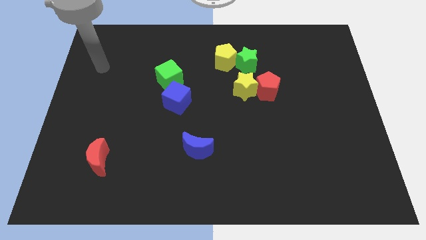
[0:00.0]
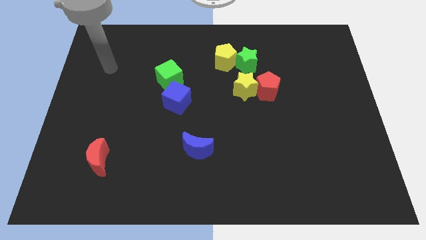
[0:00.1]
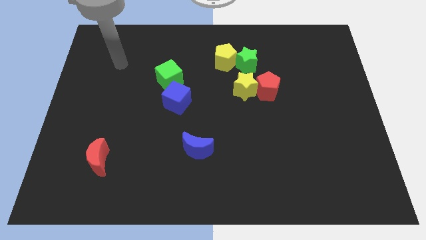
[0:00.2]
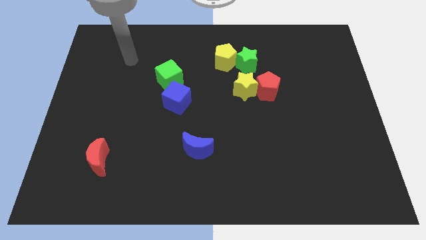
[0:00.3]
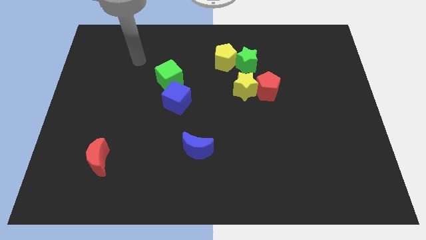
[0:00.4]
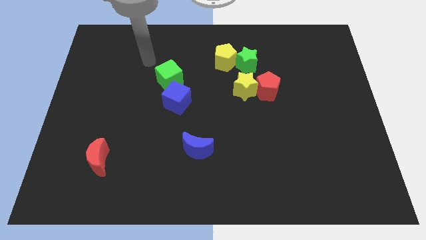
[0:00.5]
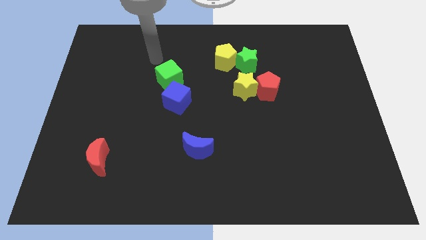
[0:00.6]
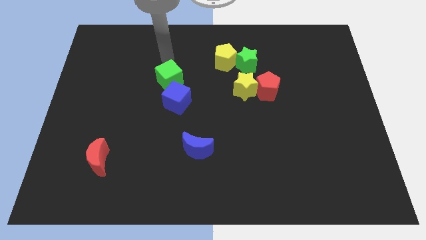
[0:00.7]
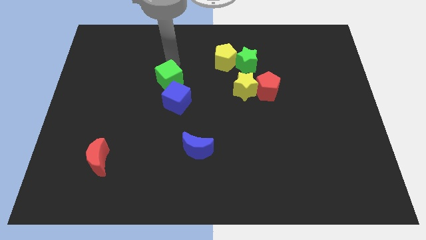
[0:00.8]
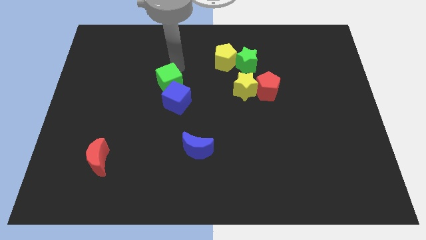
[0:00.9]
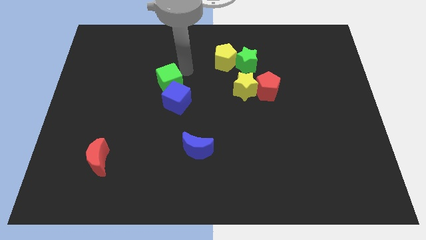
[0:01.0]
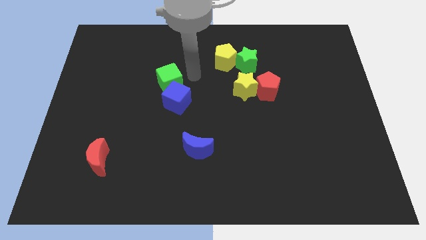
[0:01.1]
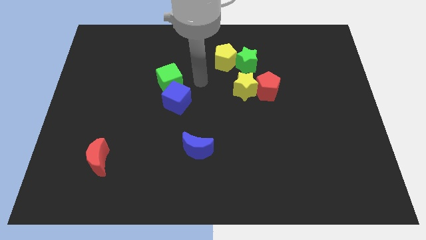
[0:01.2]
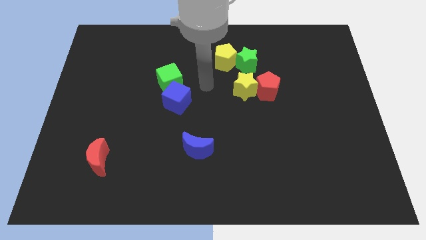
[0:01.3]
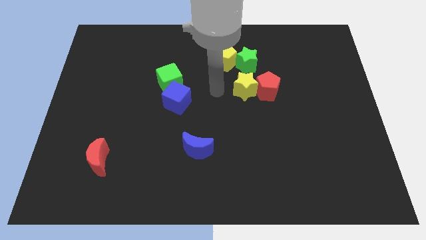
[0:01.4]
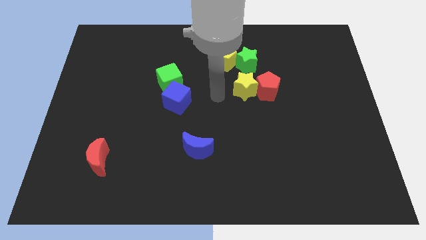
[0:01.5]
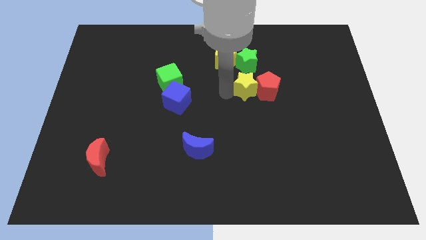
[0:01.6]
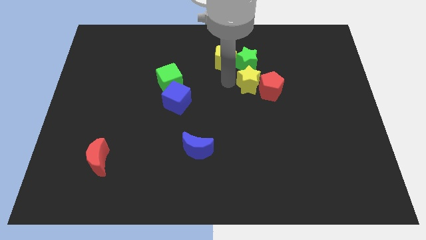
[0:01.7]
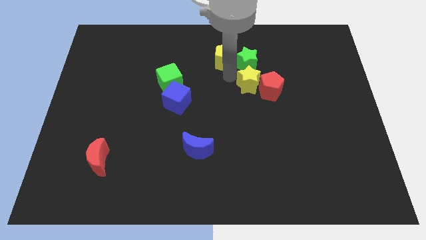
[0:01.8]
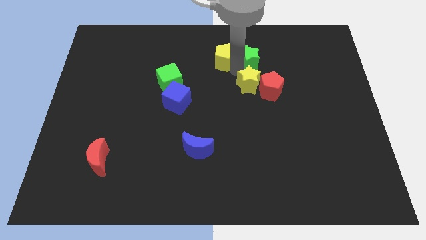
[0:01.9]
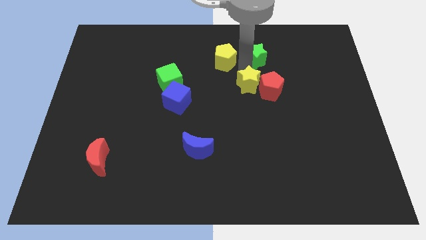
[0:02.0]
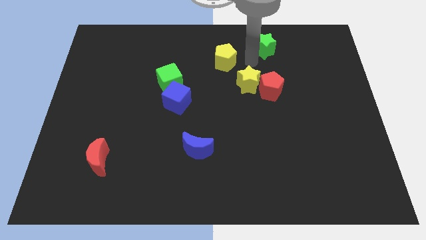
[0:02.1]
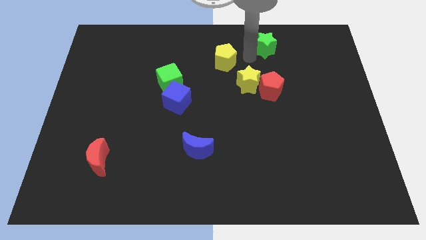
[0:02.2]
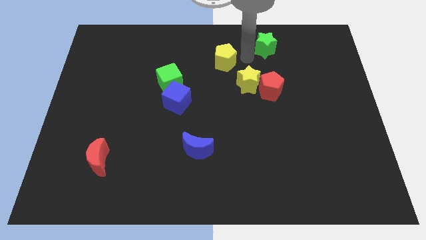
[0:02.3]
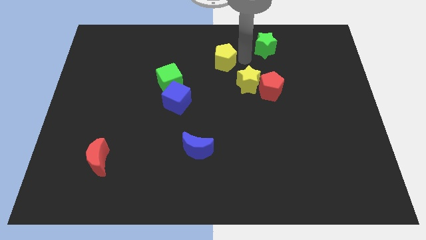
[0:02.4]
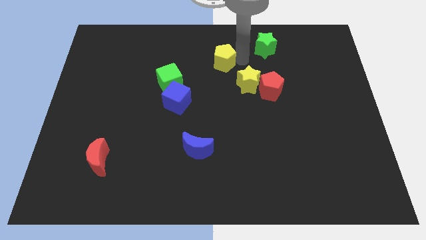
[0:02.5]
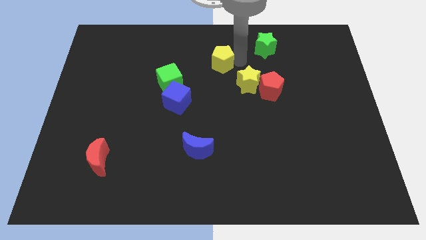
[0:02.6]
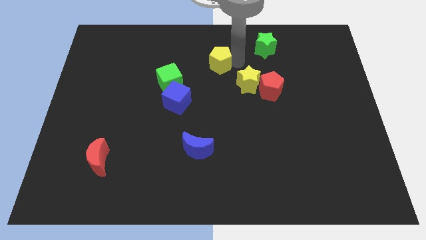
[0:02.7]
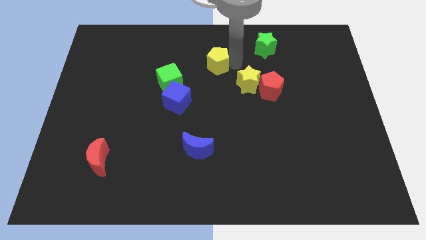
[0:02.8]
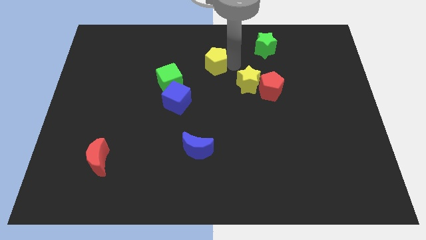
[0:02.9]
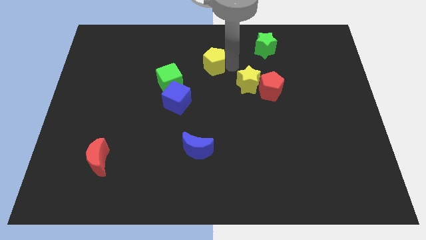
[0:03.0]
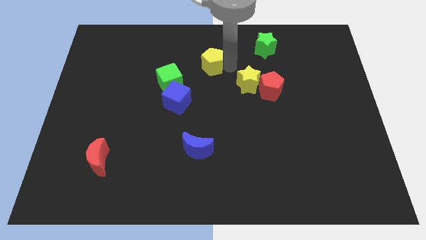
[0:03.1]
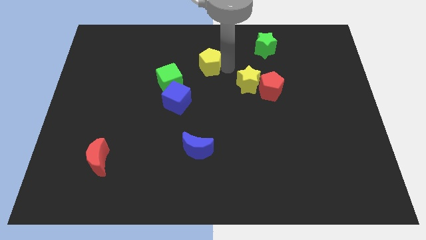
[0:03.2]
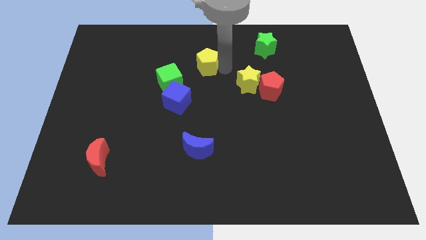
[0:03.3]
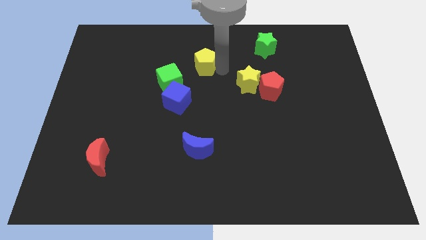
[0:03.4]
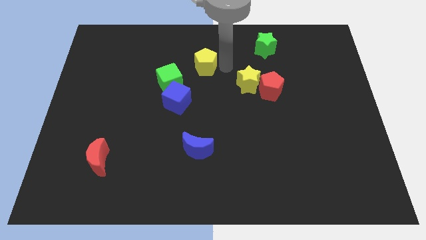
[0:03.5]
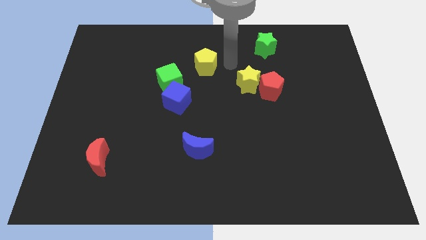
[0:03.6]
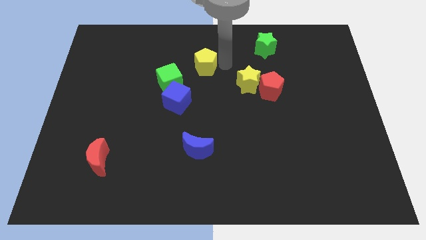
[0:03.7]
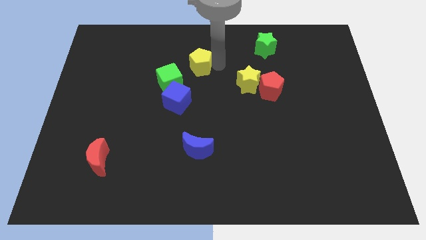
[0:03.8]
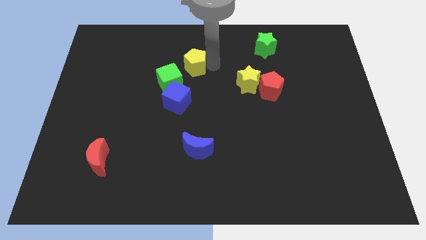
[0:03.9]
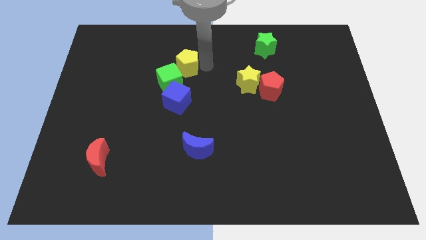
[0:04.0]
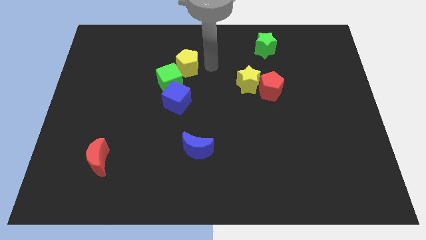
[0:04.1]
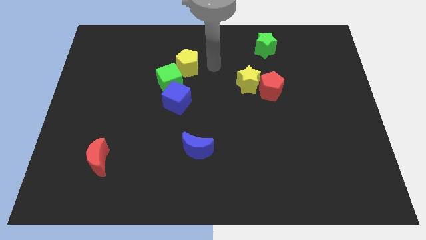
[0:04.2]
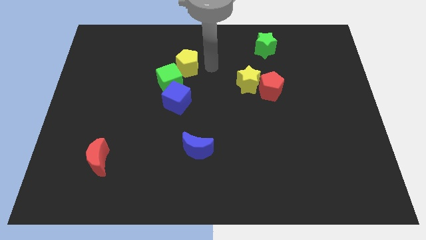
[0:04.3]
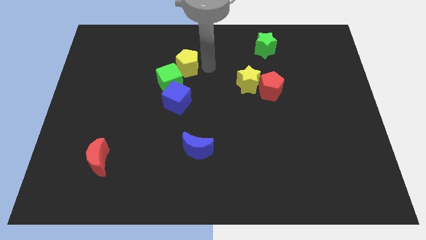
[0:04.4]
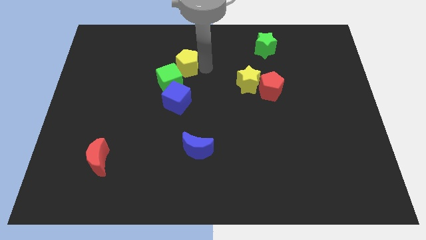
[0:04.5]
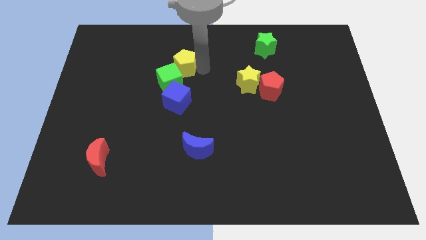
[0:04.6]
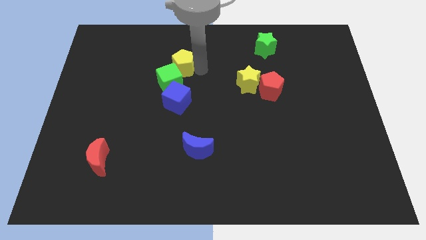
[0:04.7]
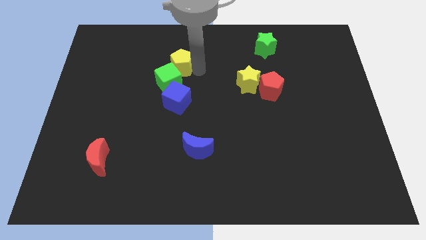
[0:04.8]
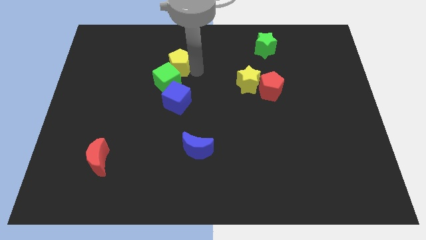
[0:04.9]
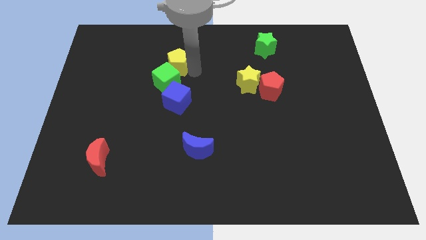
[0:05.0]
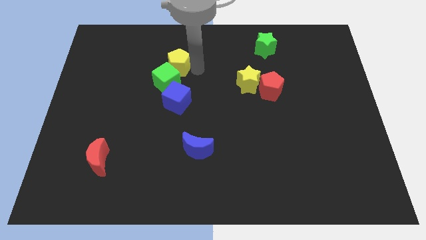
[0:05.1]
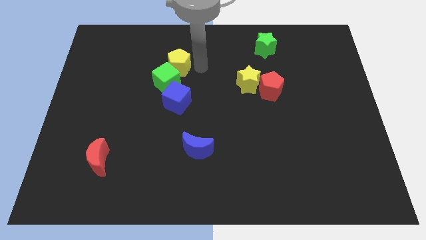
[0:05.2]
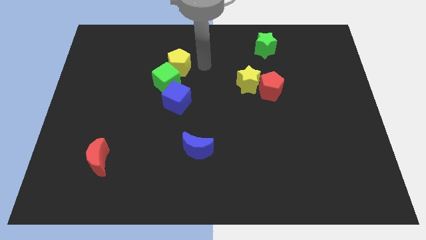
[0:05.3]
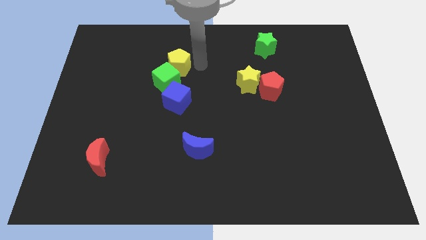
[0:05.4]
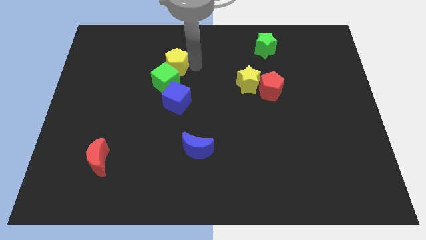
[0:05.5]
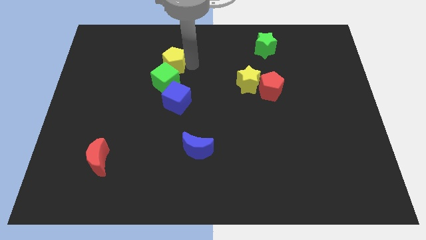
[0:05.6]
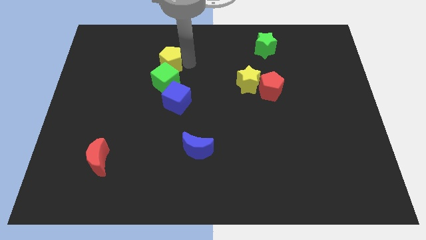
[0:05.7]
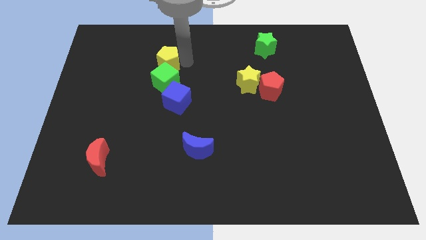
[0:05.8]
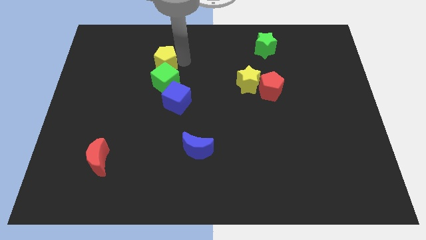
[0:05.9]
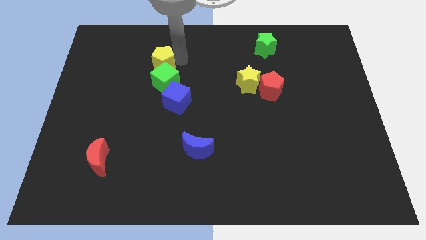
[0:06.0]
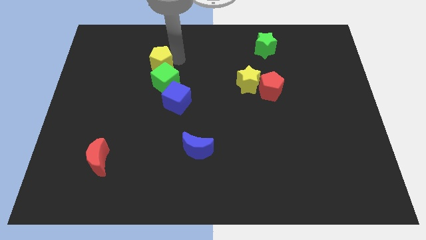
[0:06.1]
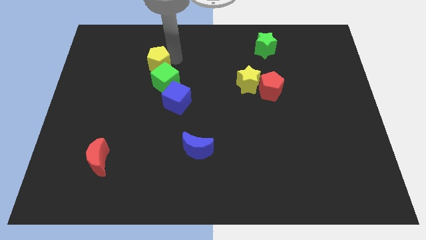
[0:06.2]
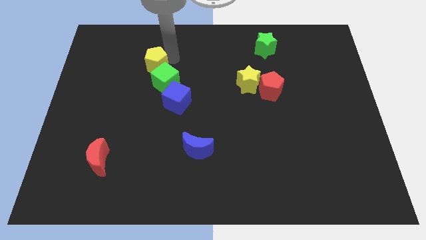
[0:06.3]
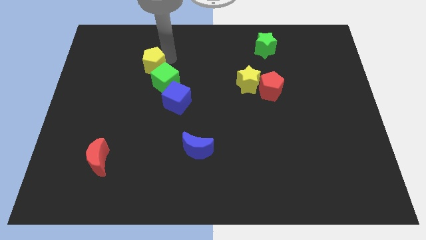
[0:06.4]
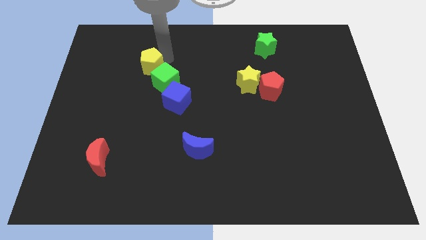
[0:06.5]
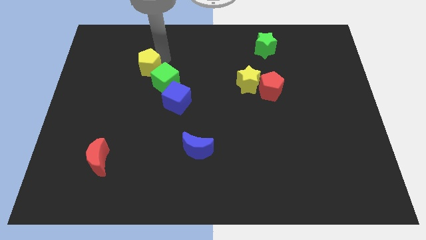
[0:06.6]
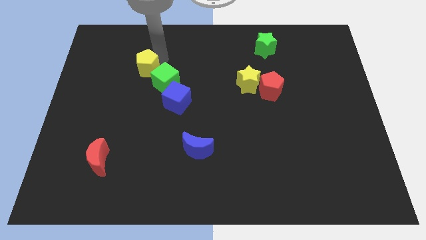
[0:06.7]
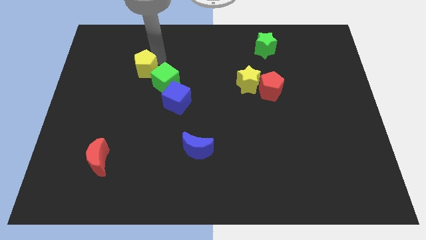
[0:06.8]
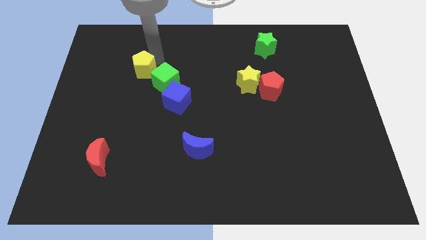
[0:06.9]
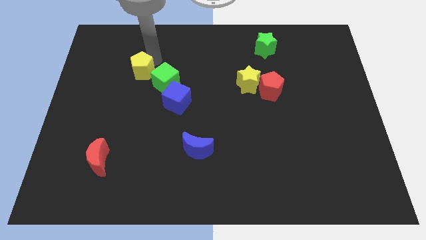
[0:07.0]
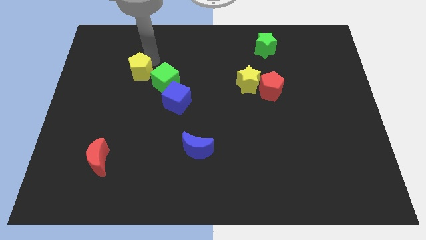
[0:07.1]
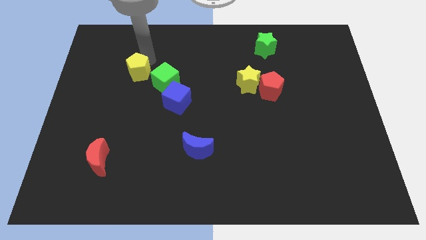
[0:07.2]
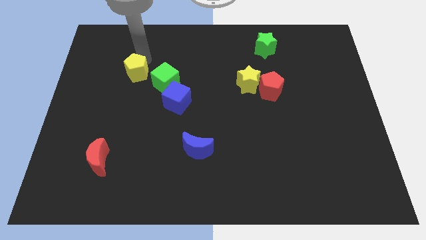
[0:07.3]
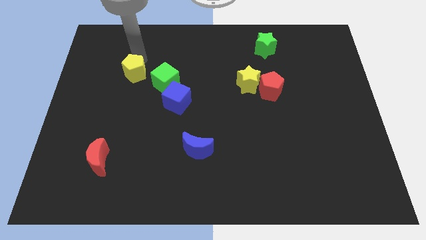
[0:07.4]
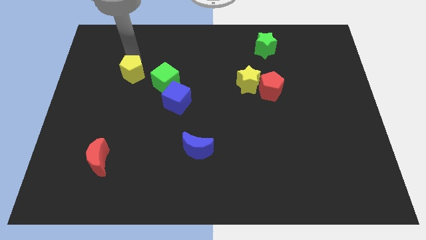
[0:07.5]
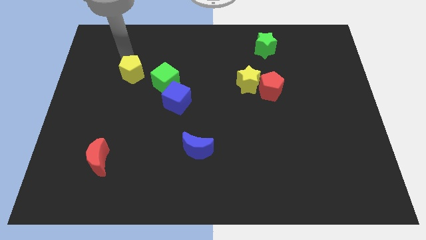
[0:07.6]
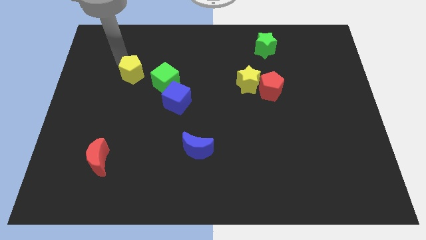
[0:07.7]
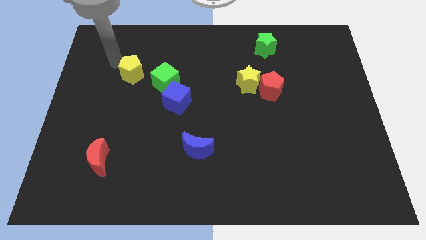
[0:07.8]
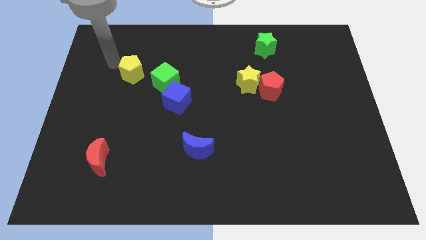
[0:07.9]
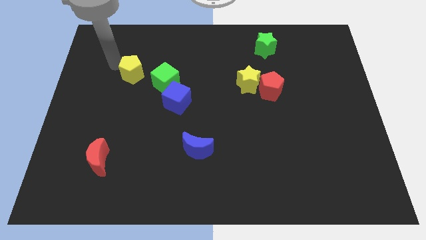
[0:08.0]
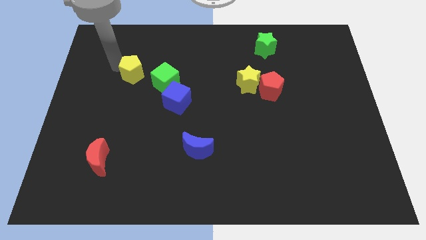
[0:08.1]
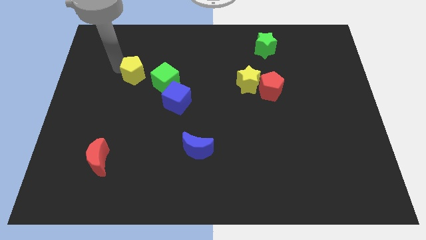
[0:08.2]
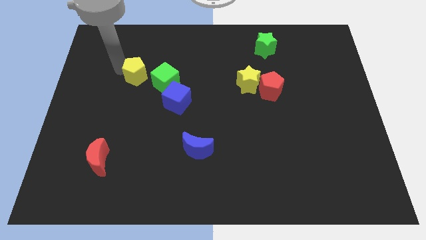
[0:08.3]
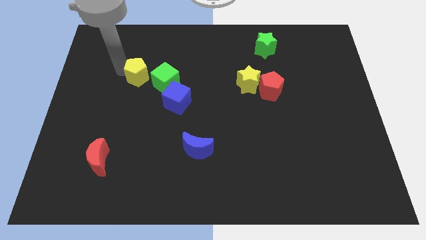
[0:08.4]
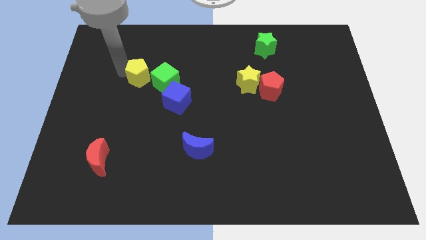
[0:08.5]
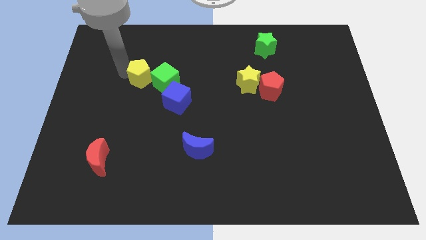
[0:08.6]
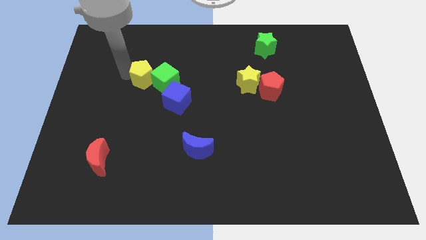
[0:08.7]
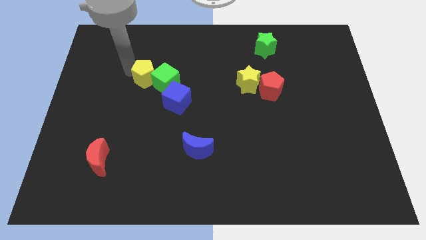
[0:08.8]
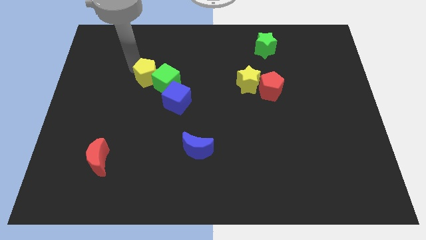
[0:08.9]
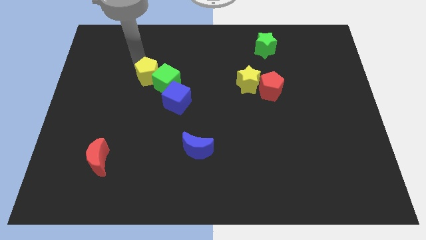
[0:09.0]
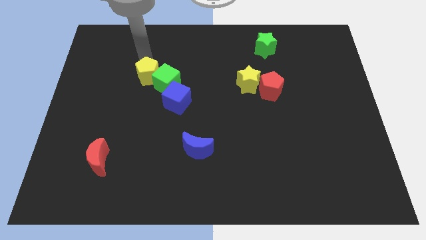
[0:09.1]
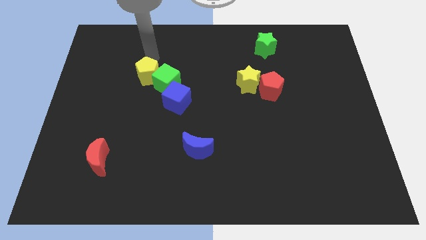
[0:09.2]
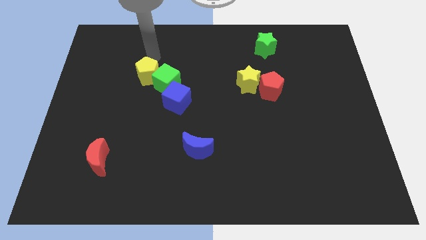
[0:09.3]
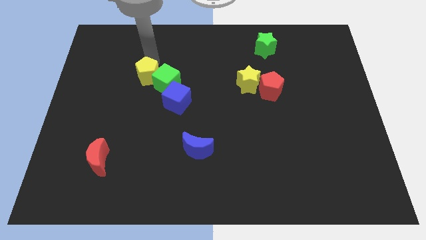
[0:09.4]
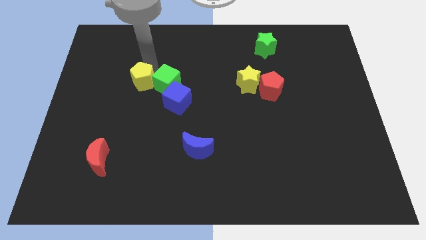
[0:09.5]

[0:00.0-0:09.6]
slide the yellow pentagon to the bottom left side of the green cube
